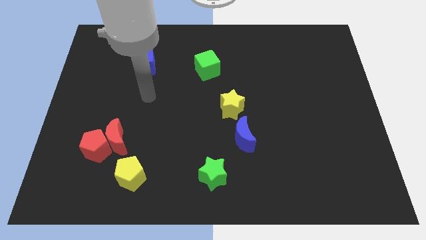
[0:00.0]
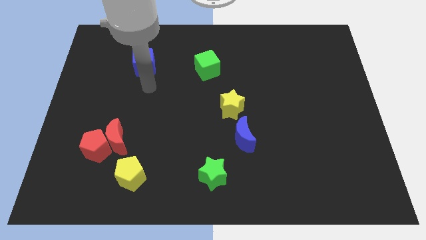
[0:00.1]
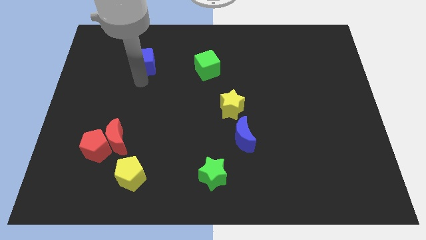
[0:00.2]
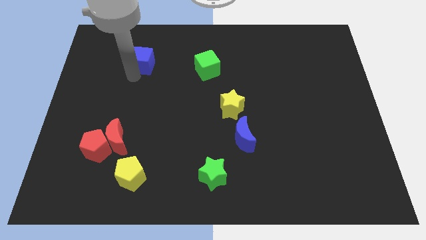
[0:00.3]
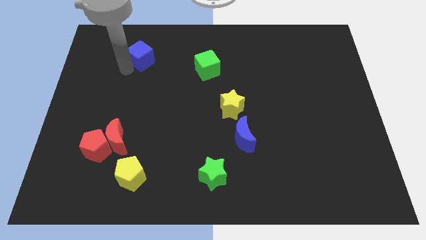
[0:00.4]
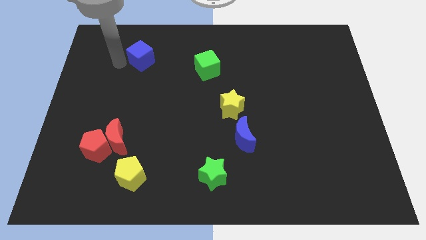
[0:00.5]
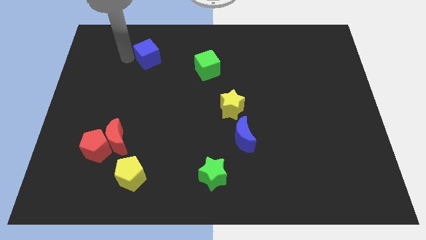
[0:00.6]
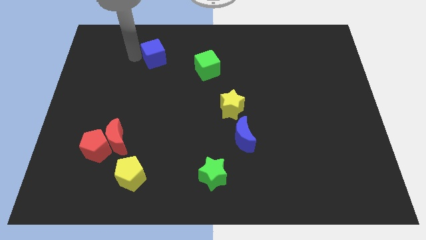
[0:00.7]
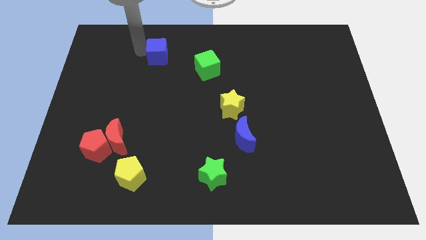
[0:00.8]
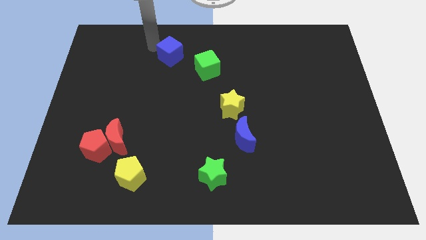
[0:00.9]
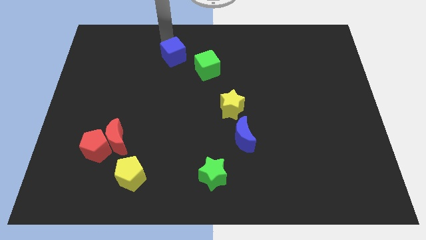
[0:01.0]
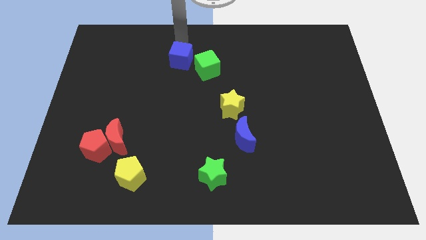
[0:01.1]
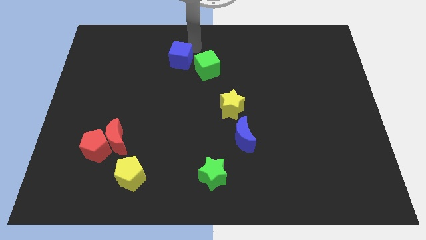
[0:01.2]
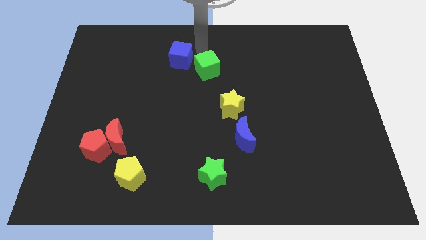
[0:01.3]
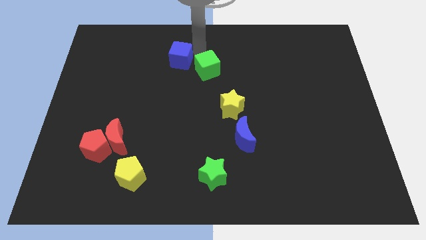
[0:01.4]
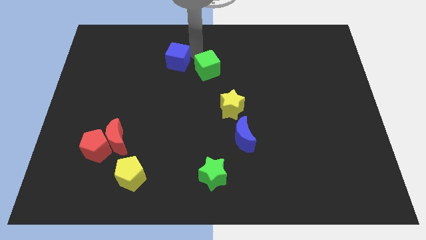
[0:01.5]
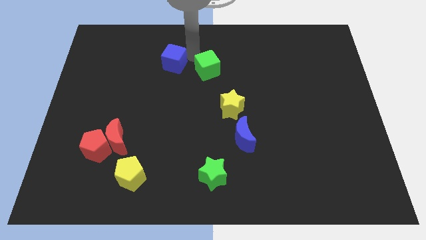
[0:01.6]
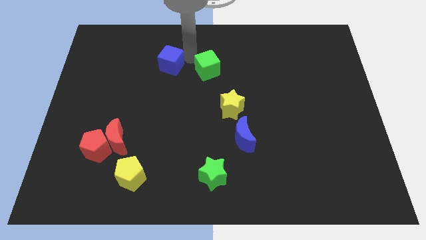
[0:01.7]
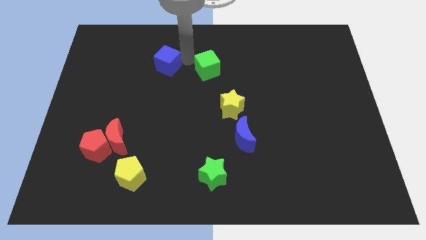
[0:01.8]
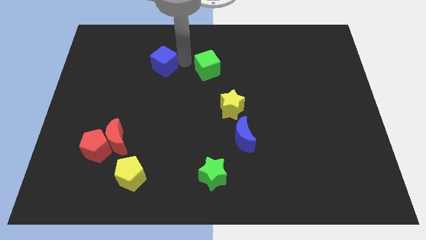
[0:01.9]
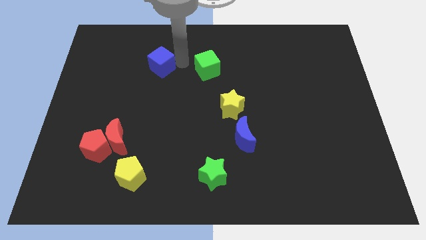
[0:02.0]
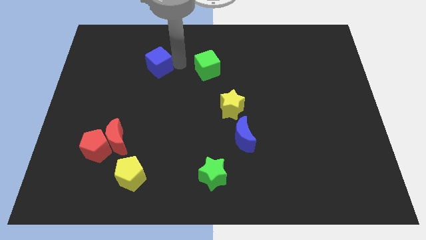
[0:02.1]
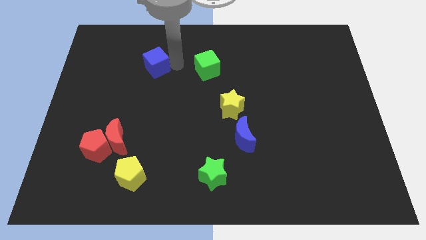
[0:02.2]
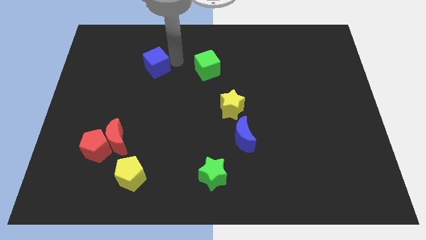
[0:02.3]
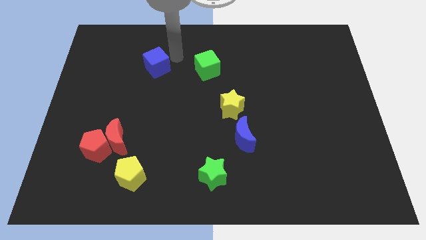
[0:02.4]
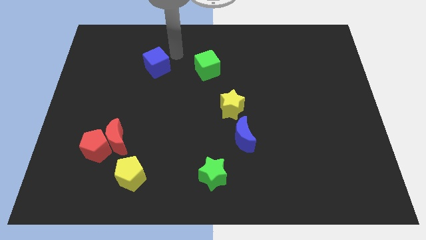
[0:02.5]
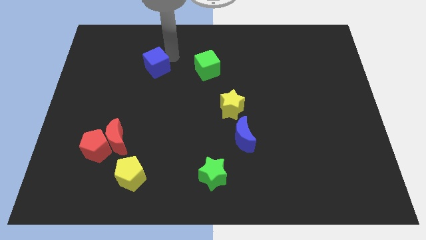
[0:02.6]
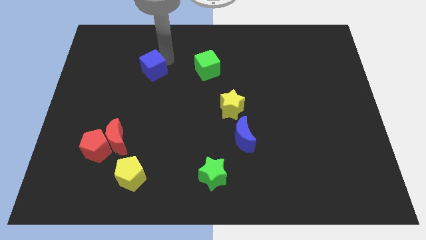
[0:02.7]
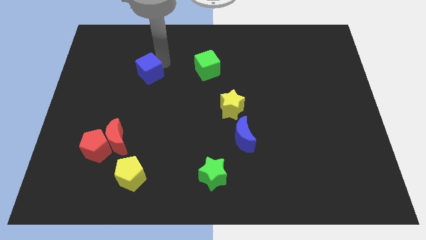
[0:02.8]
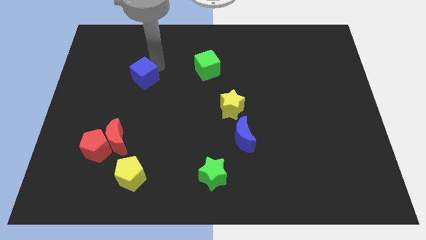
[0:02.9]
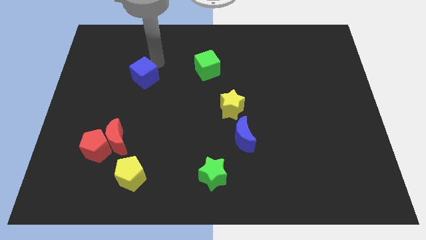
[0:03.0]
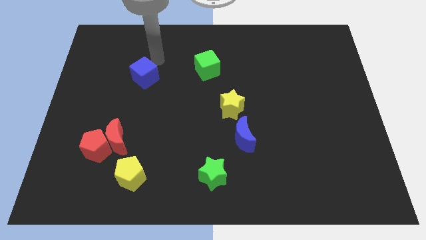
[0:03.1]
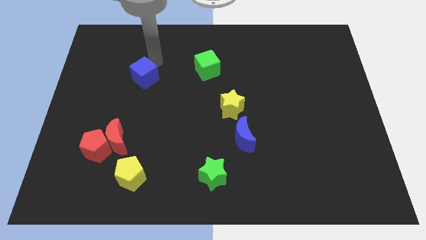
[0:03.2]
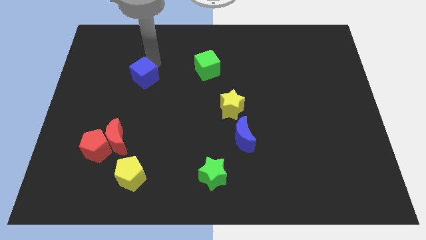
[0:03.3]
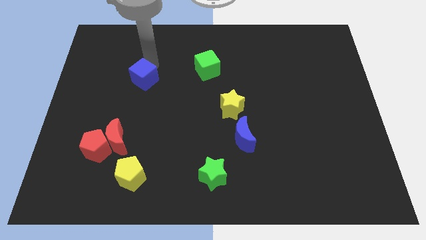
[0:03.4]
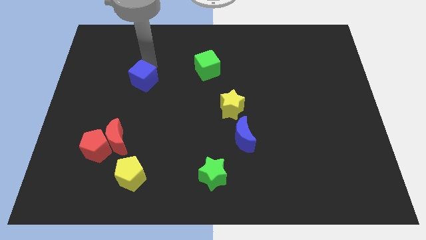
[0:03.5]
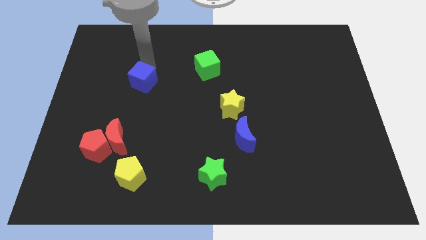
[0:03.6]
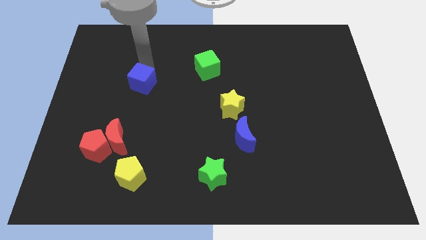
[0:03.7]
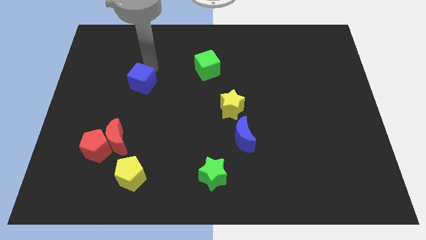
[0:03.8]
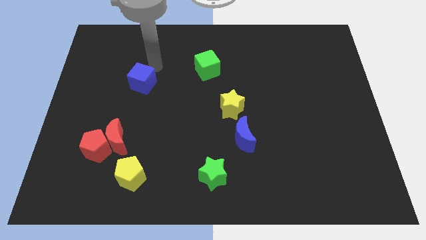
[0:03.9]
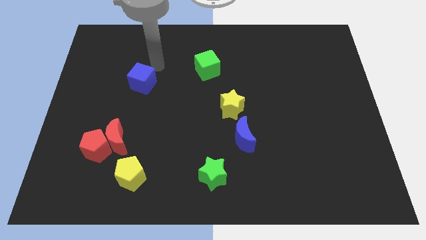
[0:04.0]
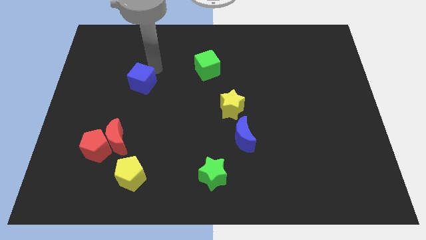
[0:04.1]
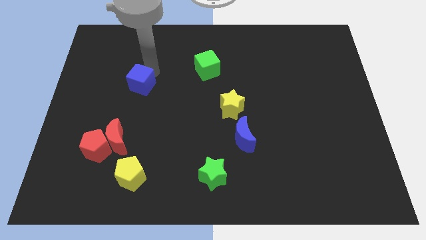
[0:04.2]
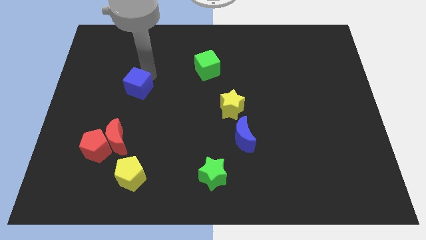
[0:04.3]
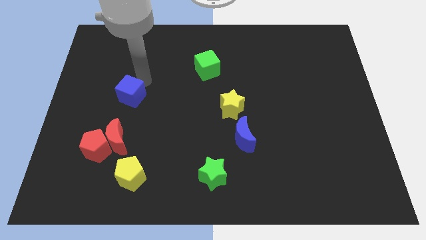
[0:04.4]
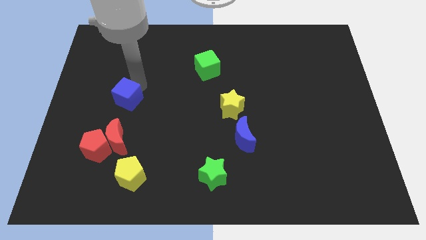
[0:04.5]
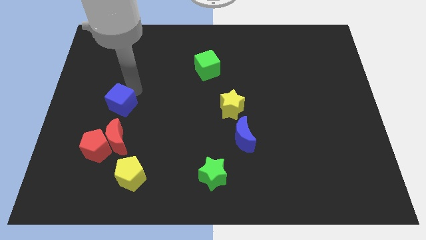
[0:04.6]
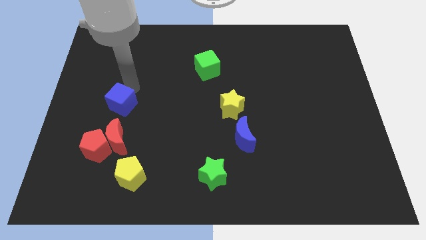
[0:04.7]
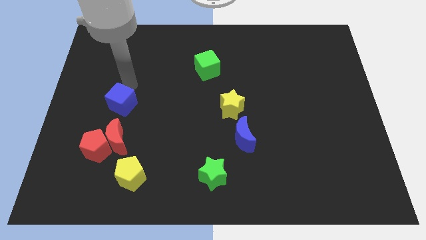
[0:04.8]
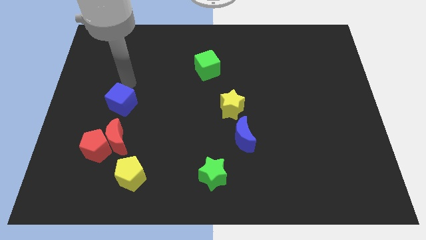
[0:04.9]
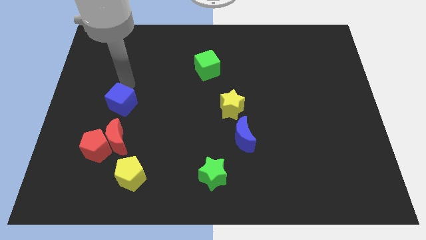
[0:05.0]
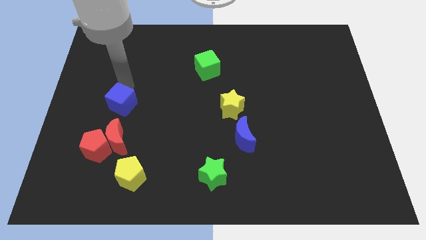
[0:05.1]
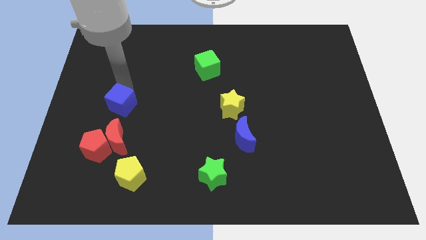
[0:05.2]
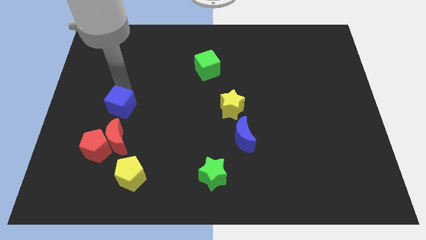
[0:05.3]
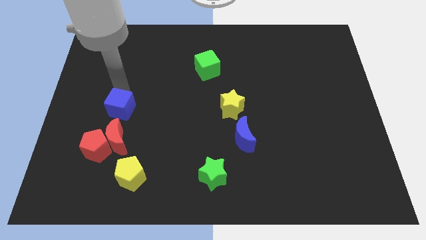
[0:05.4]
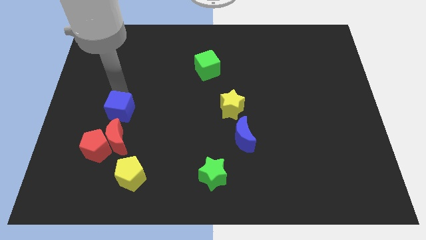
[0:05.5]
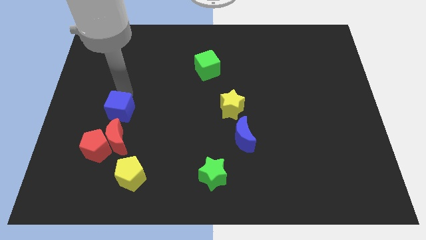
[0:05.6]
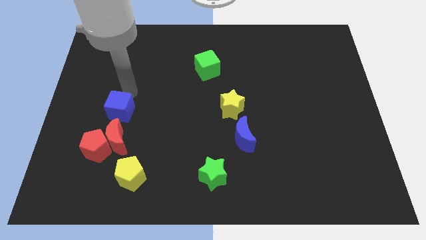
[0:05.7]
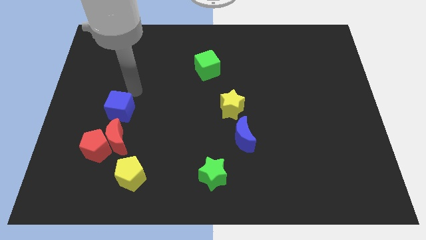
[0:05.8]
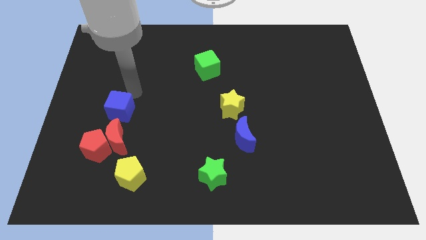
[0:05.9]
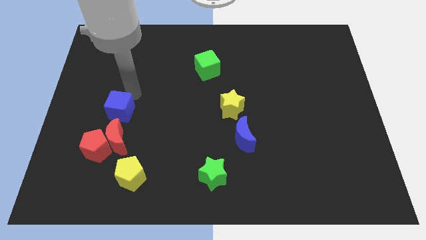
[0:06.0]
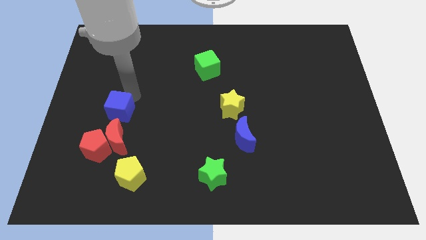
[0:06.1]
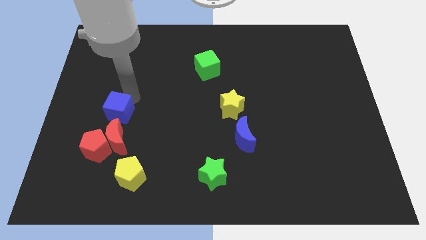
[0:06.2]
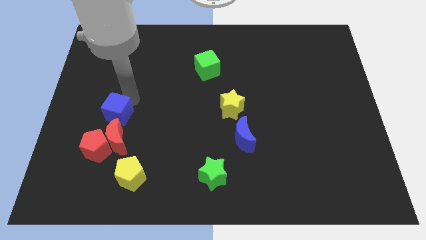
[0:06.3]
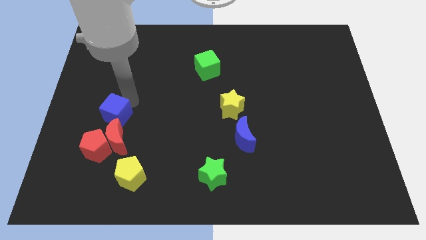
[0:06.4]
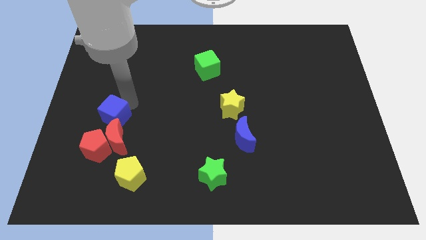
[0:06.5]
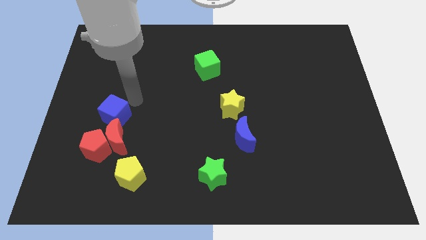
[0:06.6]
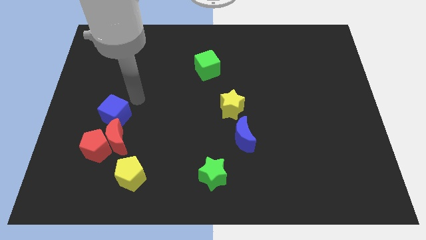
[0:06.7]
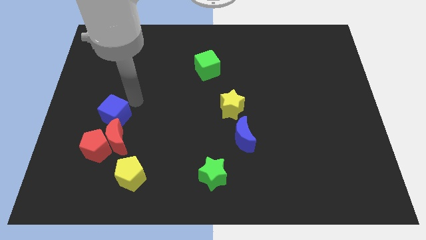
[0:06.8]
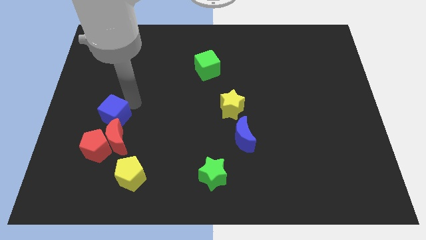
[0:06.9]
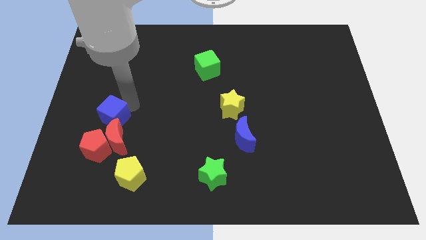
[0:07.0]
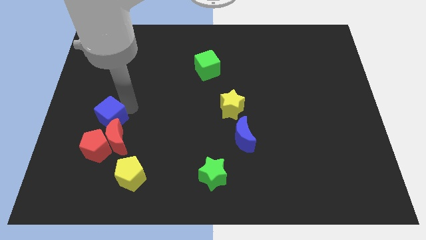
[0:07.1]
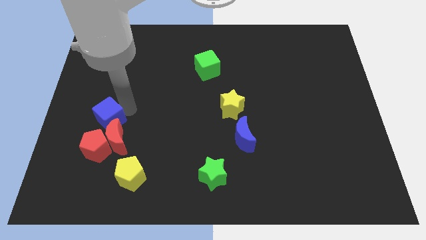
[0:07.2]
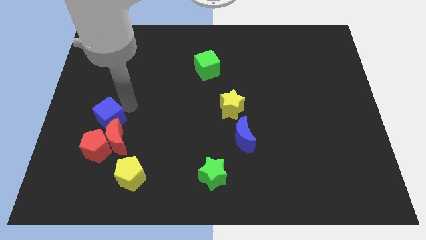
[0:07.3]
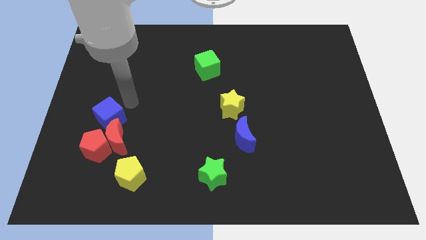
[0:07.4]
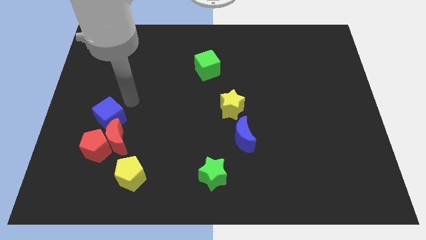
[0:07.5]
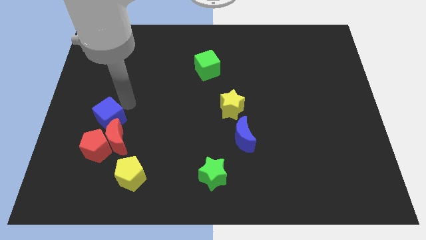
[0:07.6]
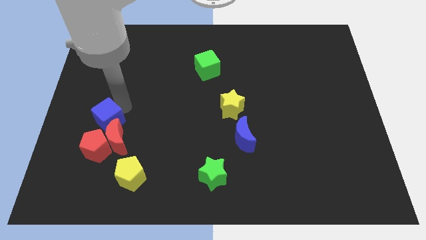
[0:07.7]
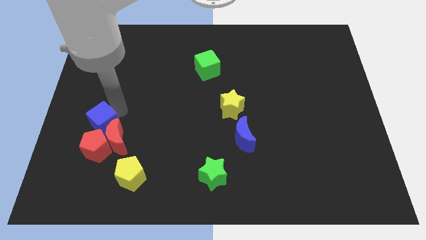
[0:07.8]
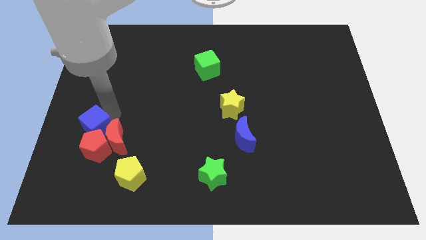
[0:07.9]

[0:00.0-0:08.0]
slide the blue cube close to the red pentagon
